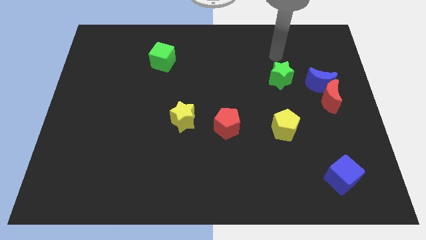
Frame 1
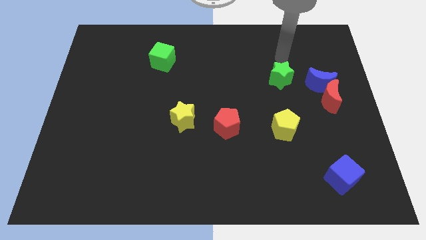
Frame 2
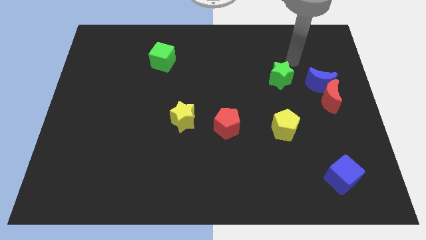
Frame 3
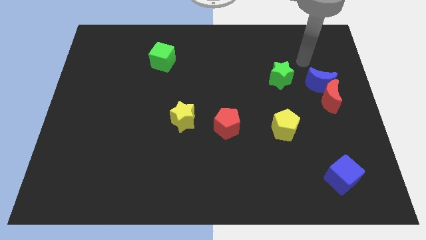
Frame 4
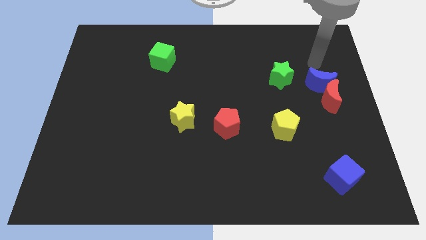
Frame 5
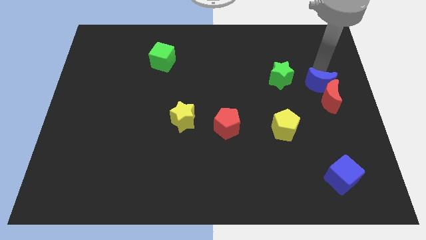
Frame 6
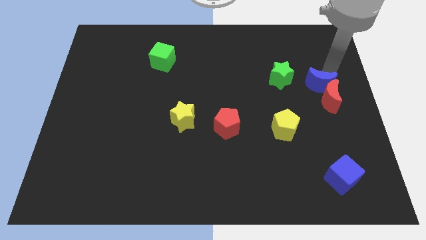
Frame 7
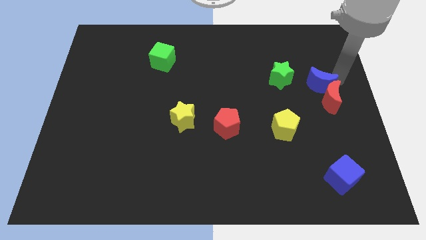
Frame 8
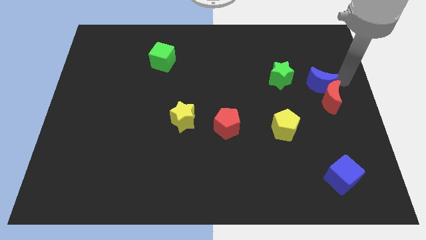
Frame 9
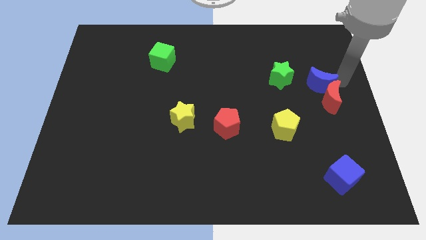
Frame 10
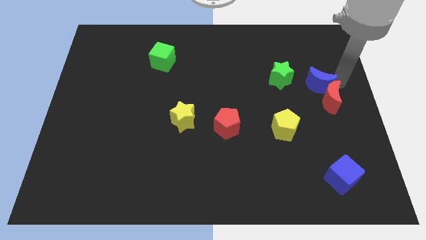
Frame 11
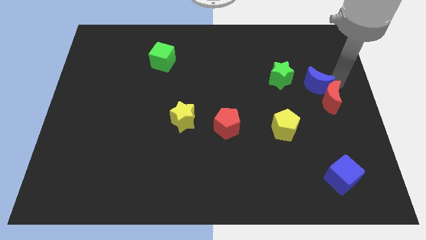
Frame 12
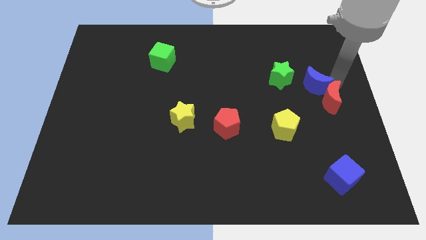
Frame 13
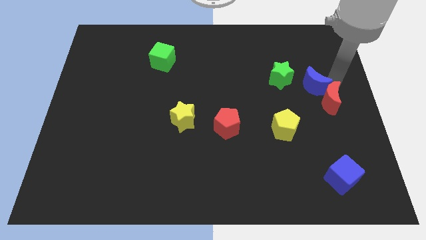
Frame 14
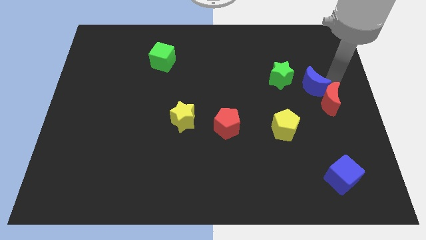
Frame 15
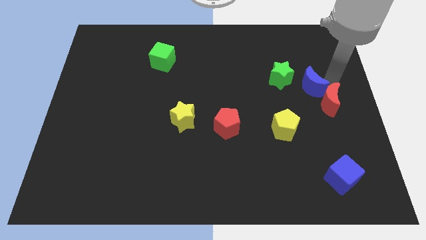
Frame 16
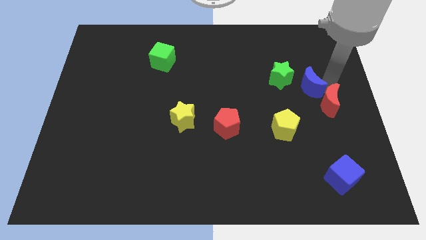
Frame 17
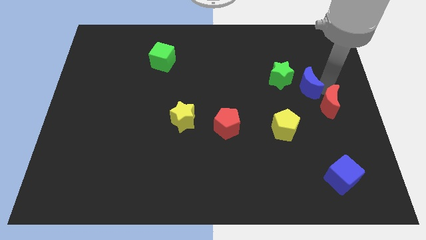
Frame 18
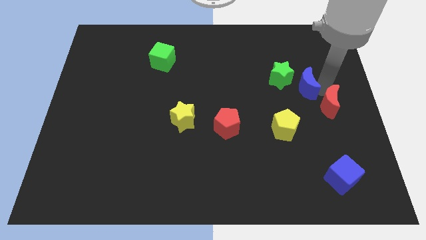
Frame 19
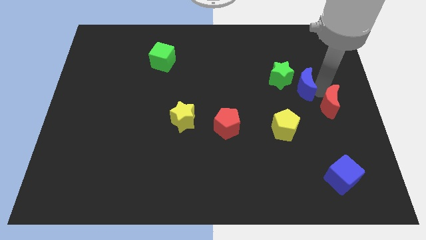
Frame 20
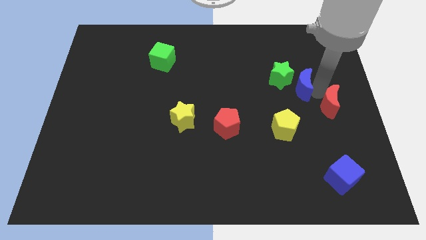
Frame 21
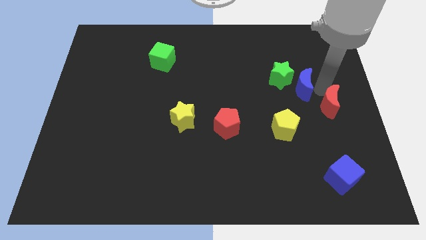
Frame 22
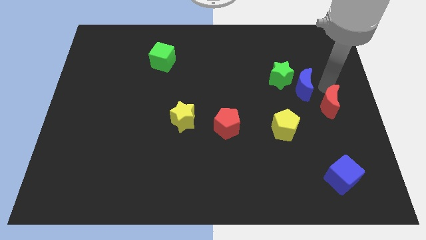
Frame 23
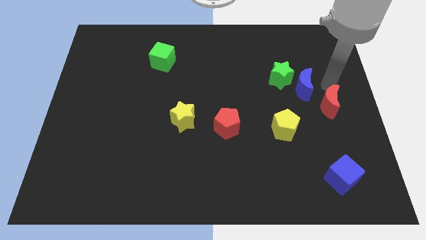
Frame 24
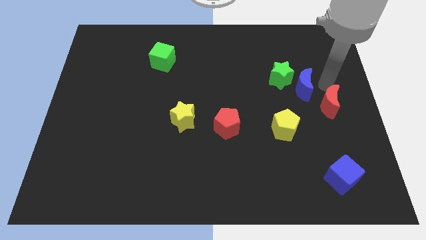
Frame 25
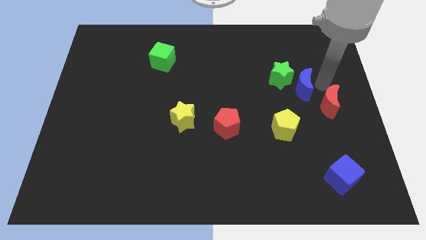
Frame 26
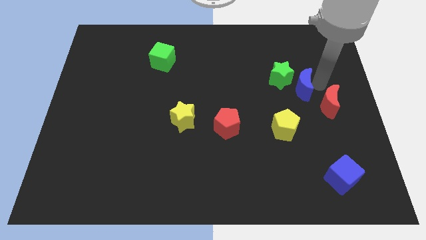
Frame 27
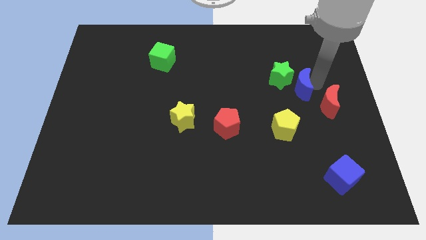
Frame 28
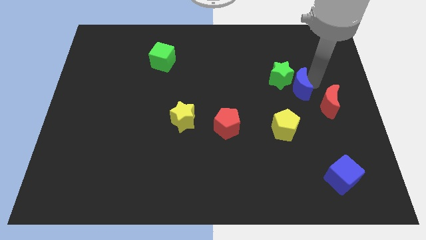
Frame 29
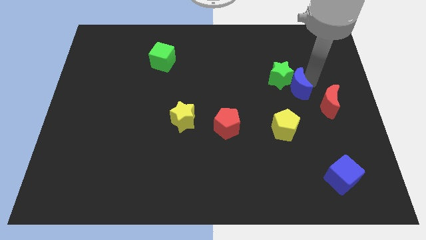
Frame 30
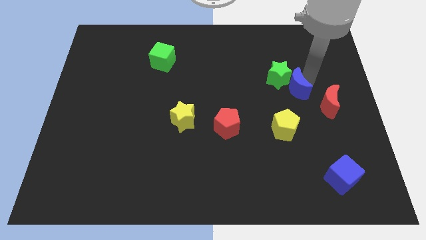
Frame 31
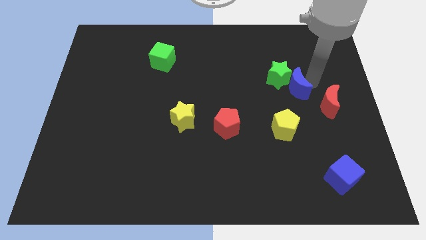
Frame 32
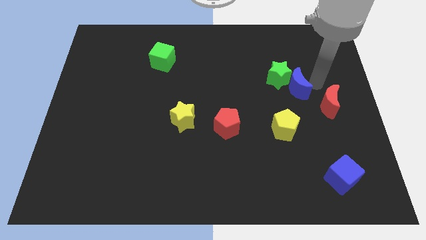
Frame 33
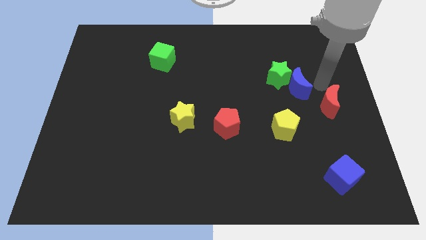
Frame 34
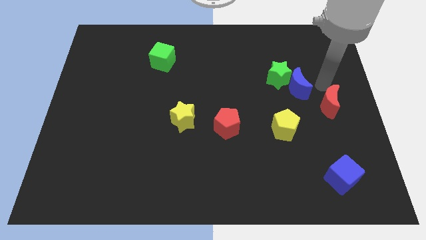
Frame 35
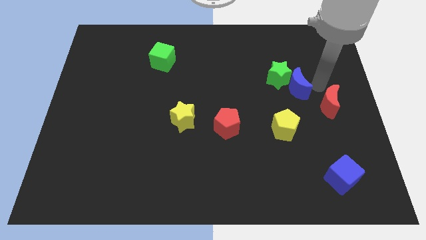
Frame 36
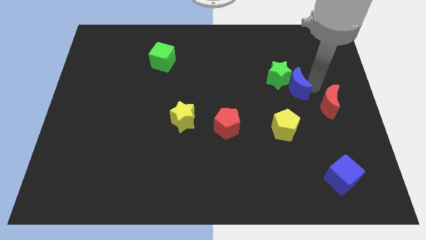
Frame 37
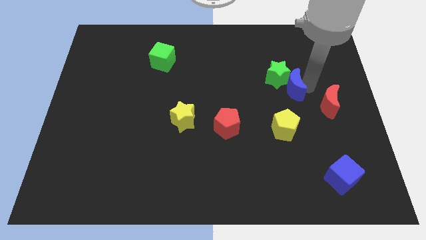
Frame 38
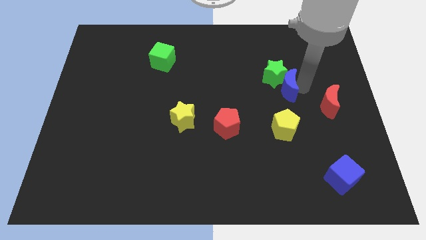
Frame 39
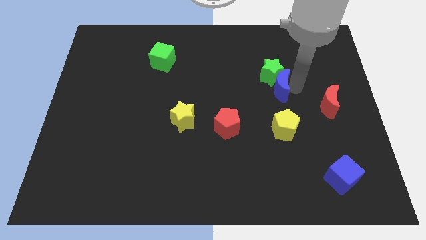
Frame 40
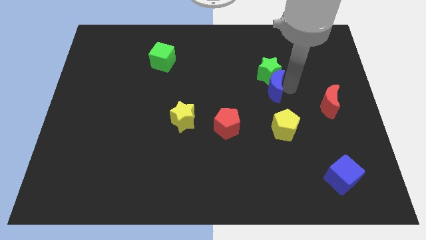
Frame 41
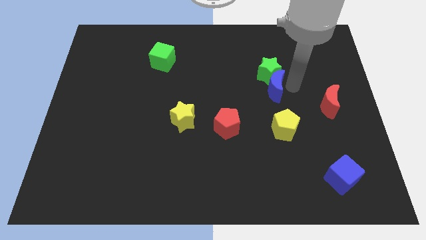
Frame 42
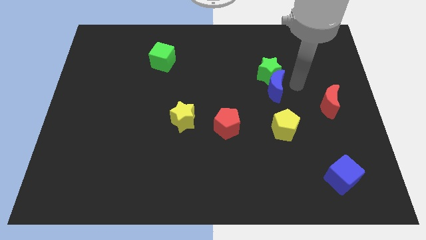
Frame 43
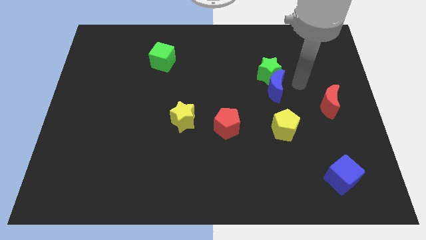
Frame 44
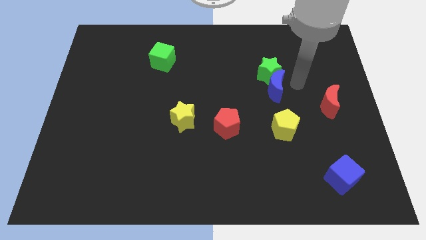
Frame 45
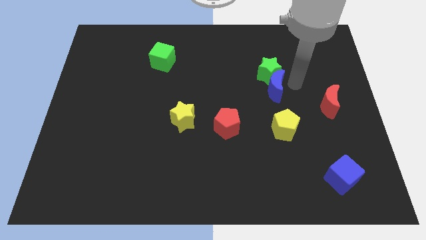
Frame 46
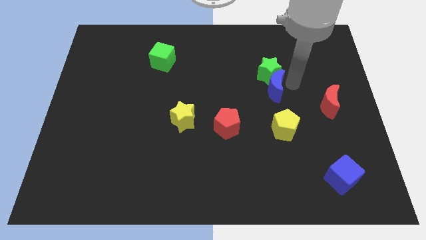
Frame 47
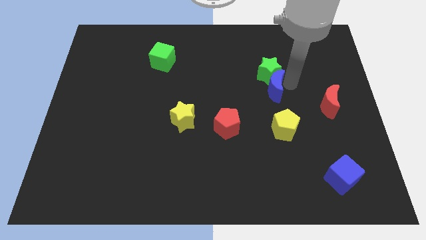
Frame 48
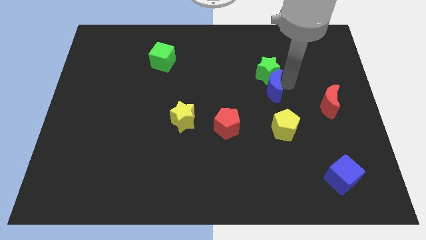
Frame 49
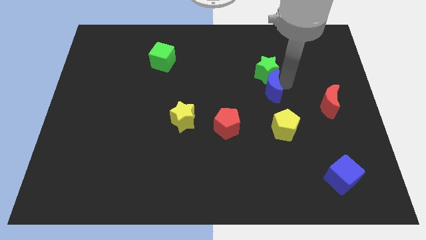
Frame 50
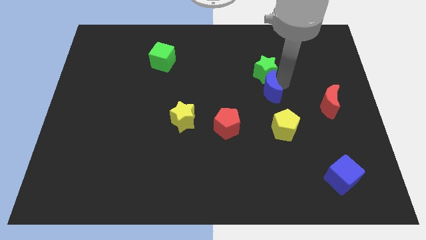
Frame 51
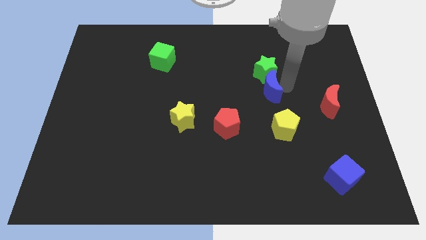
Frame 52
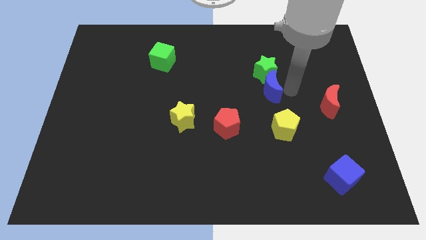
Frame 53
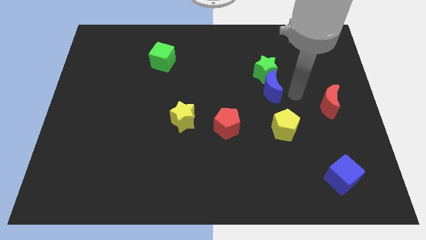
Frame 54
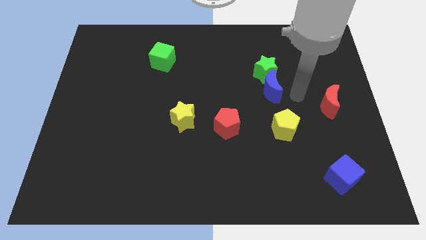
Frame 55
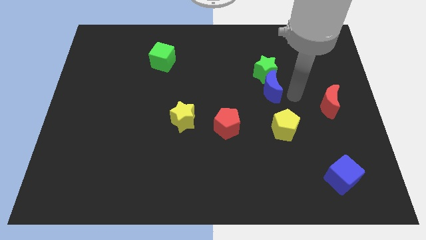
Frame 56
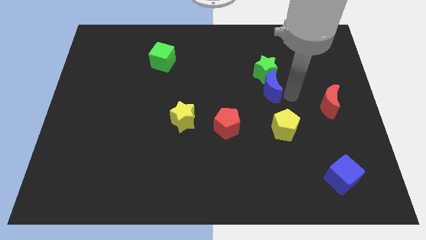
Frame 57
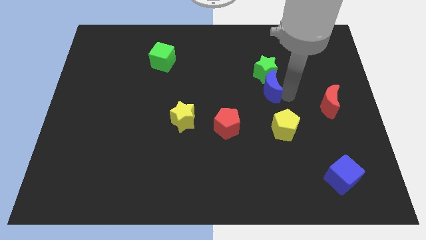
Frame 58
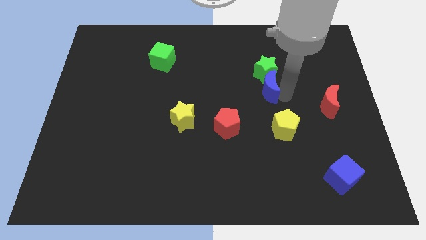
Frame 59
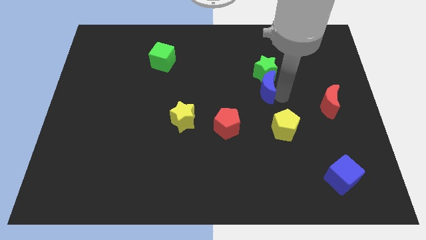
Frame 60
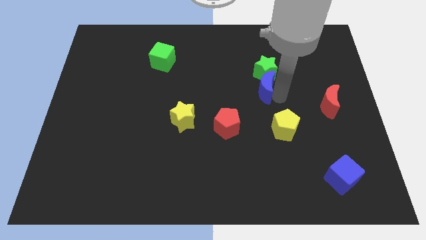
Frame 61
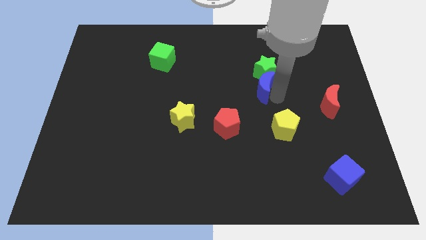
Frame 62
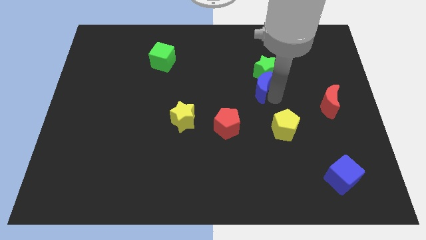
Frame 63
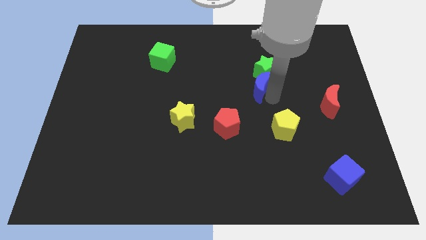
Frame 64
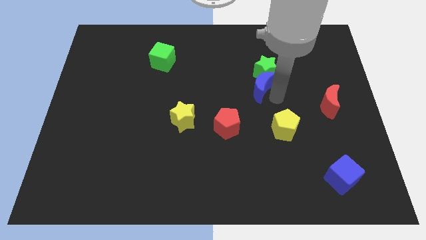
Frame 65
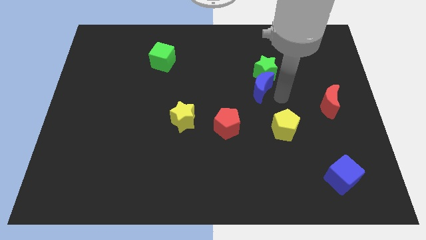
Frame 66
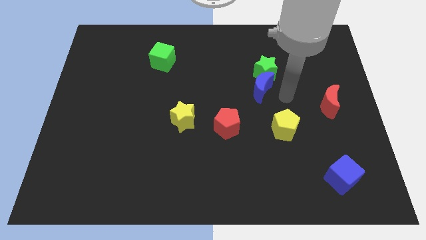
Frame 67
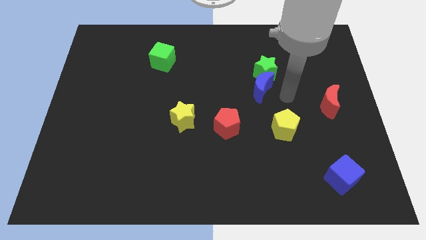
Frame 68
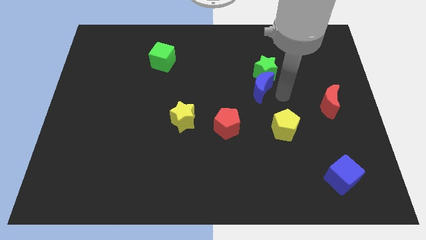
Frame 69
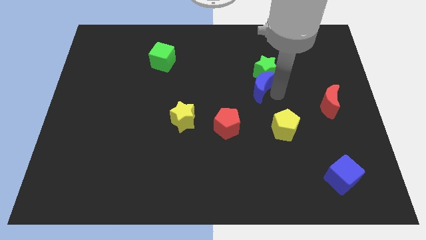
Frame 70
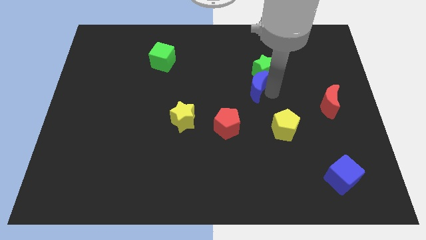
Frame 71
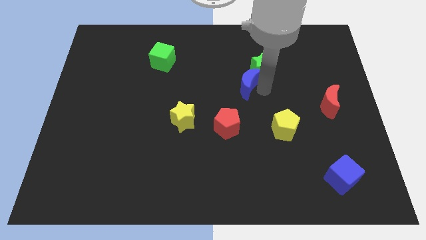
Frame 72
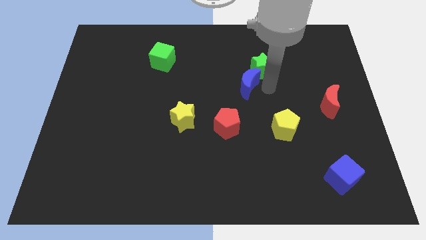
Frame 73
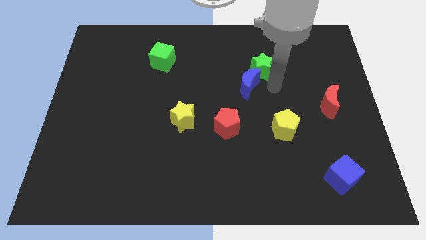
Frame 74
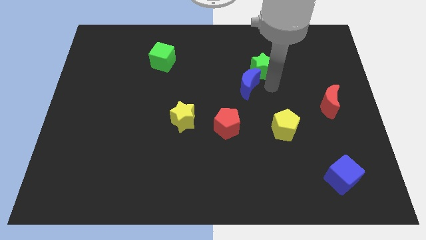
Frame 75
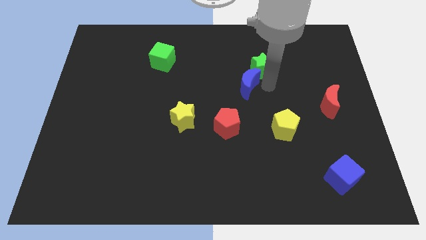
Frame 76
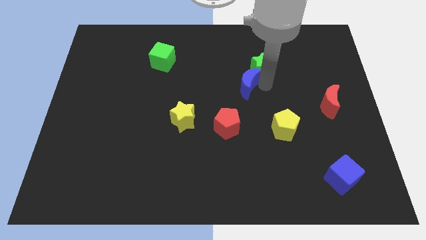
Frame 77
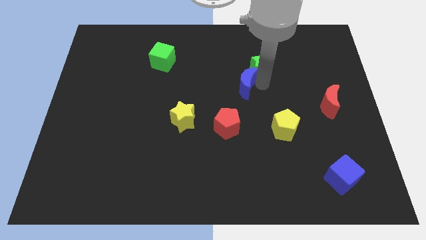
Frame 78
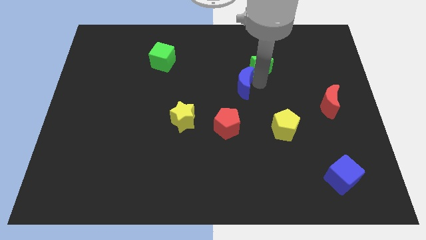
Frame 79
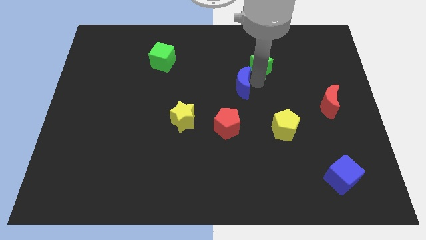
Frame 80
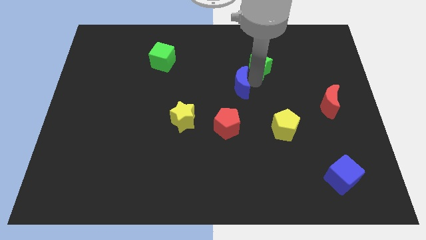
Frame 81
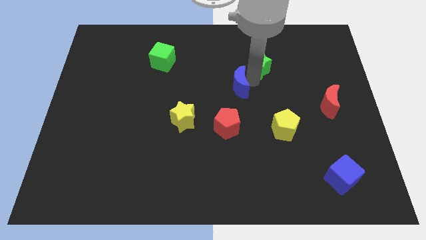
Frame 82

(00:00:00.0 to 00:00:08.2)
push the blue moon to the left
